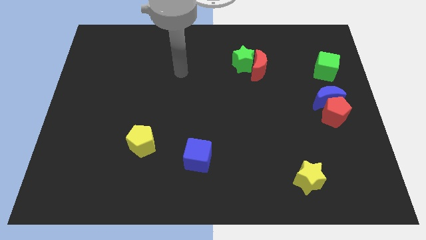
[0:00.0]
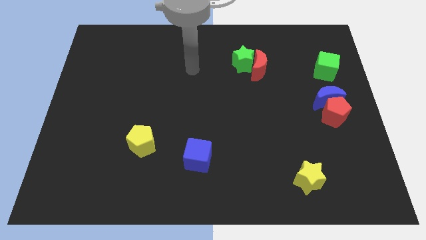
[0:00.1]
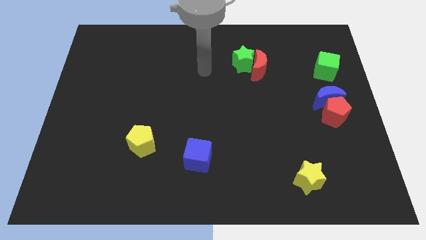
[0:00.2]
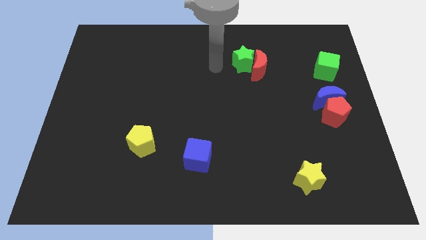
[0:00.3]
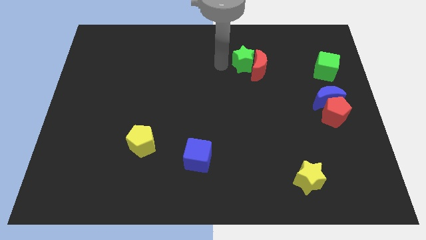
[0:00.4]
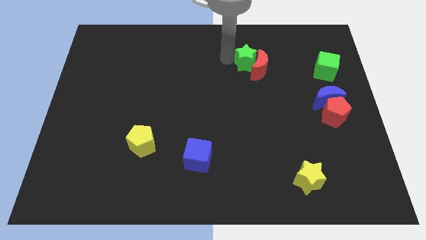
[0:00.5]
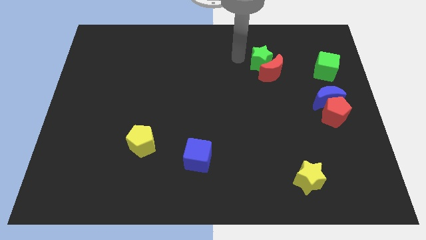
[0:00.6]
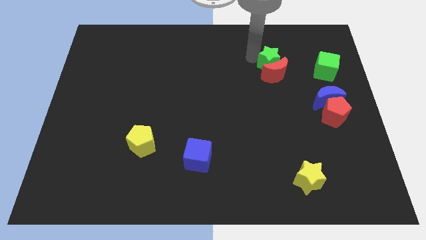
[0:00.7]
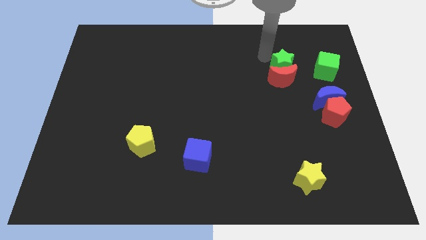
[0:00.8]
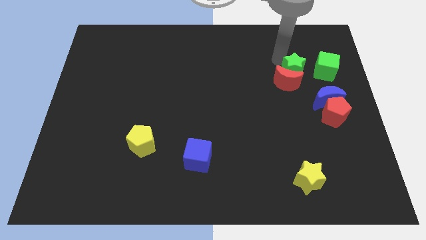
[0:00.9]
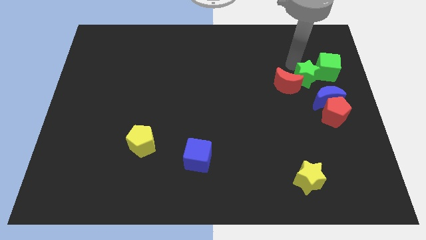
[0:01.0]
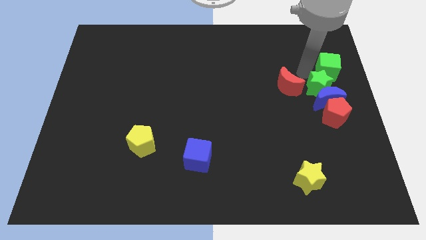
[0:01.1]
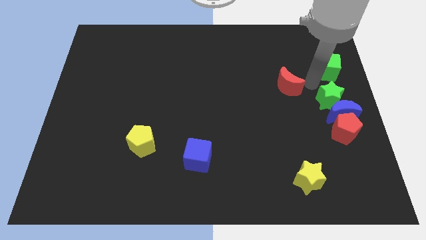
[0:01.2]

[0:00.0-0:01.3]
pull the red moon apart from the green star

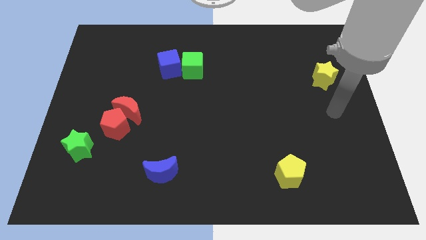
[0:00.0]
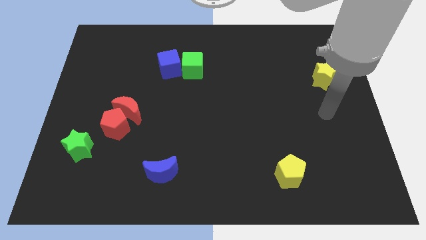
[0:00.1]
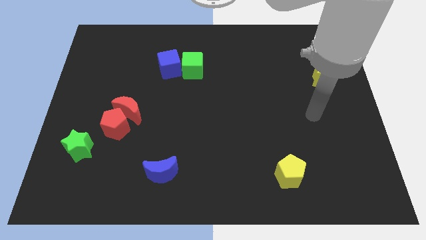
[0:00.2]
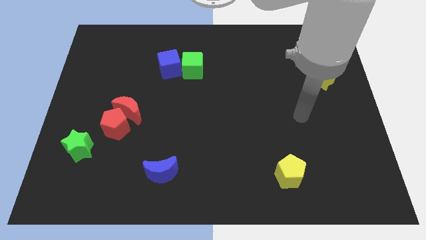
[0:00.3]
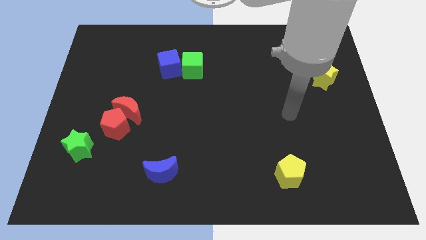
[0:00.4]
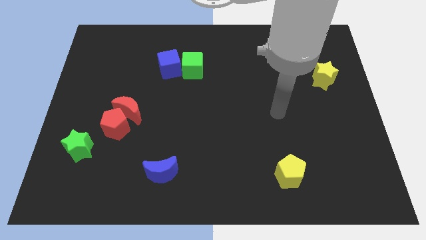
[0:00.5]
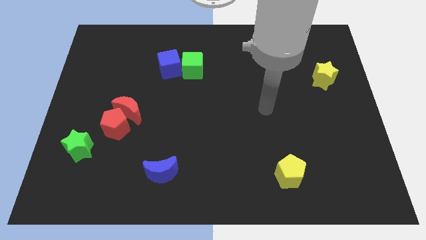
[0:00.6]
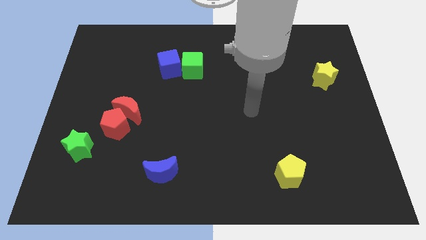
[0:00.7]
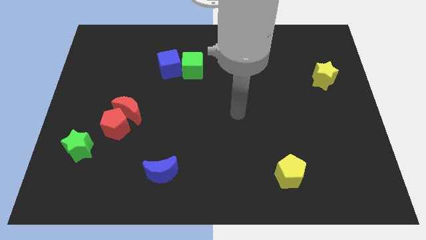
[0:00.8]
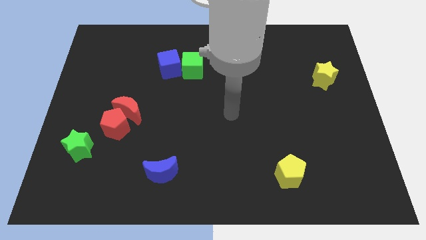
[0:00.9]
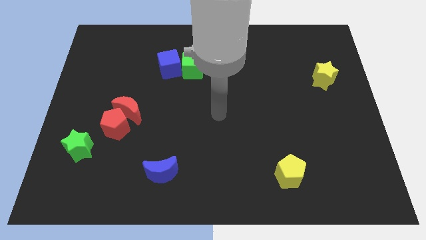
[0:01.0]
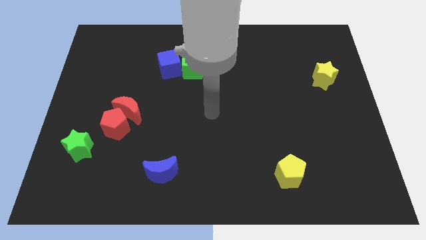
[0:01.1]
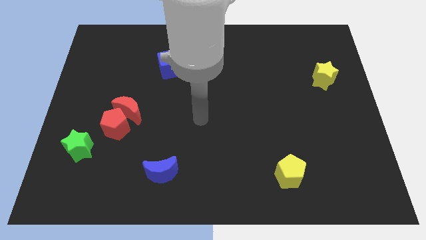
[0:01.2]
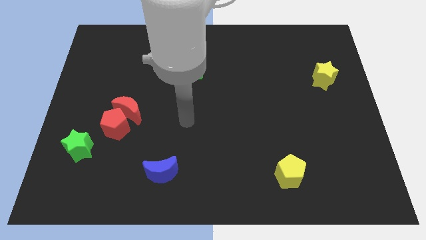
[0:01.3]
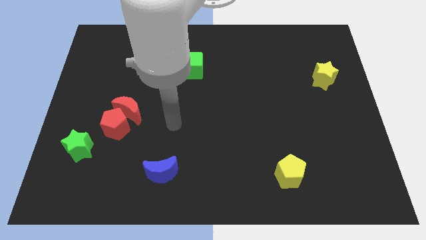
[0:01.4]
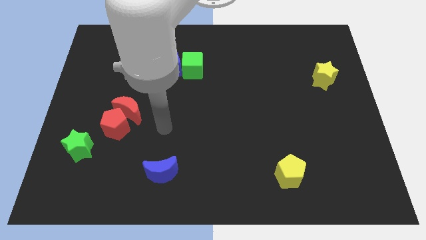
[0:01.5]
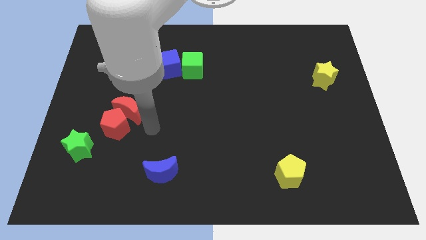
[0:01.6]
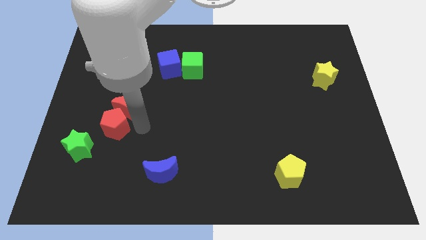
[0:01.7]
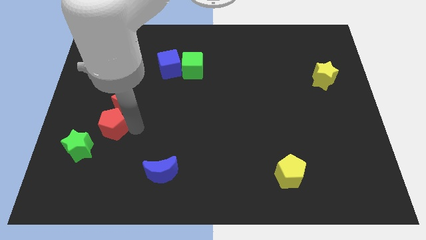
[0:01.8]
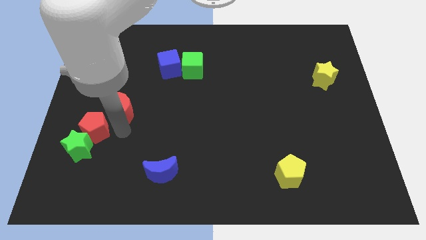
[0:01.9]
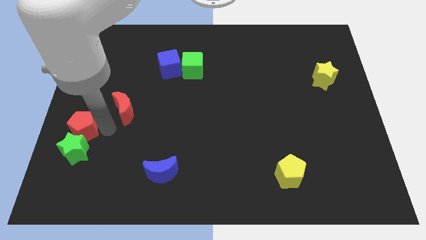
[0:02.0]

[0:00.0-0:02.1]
pull the red moon apart from the red pentagon

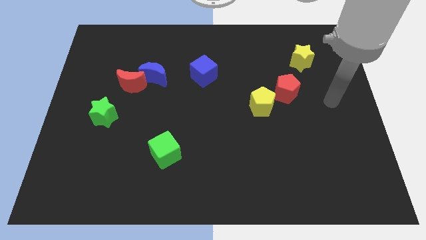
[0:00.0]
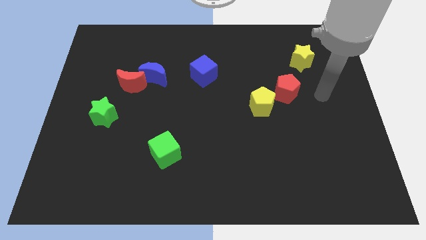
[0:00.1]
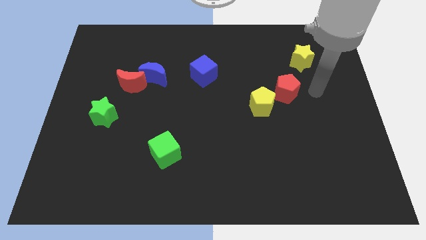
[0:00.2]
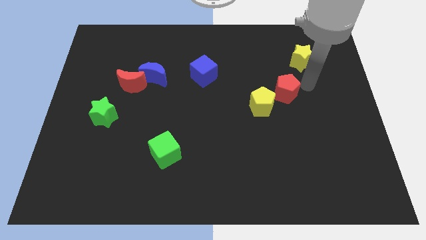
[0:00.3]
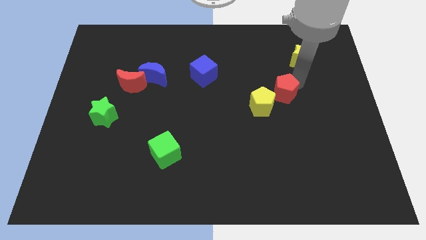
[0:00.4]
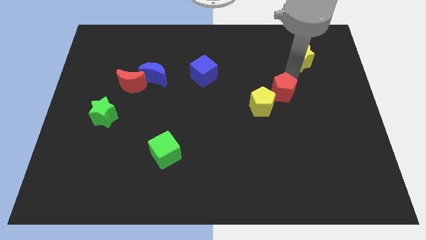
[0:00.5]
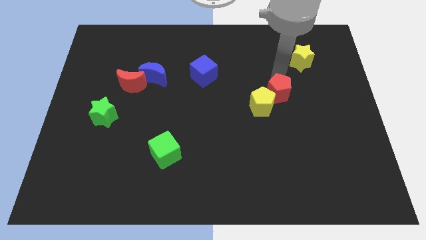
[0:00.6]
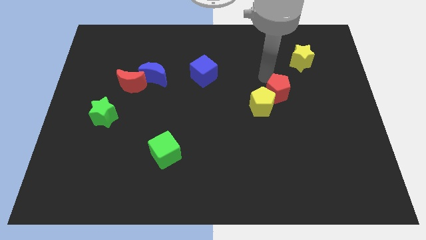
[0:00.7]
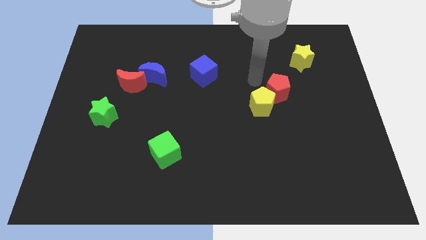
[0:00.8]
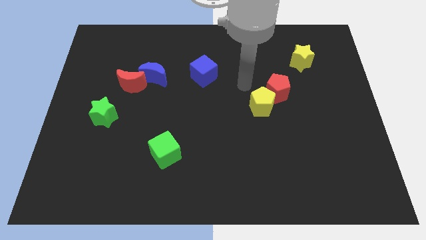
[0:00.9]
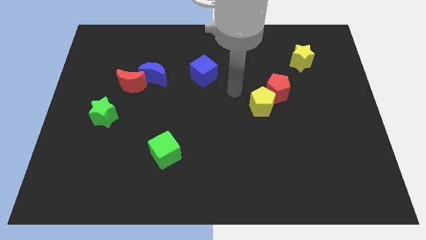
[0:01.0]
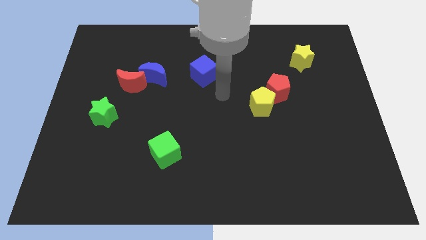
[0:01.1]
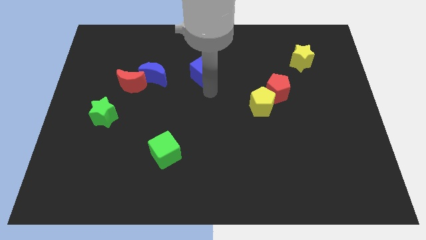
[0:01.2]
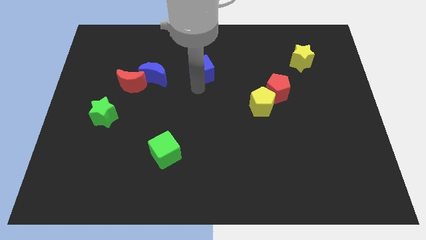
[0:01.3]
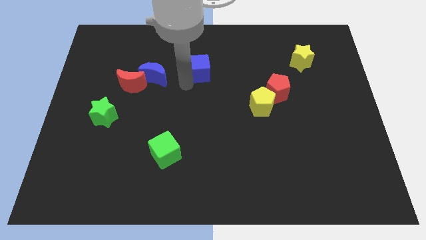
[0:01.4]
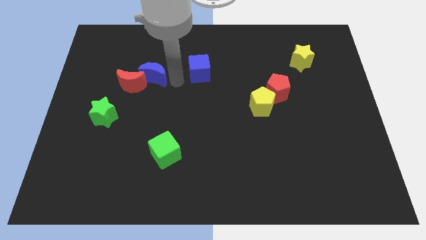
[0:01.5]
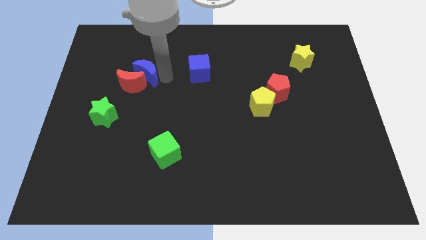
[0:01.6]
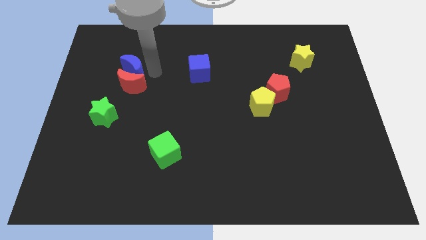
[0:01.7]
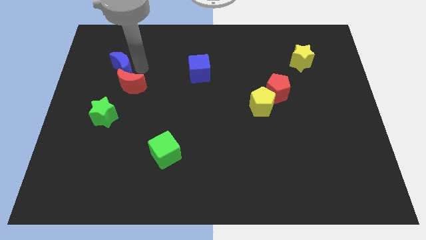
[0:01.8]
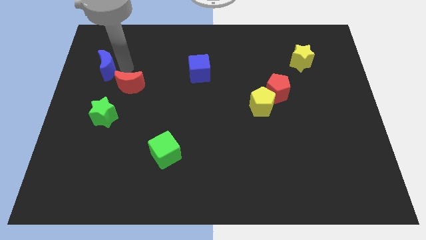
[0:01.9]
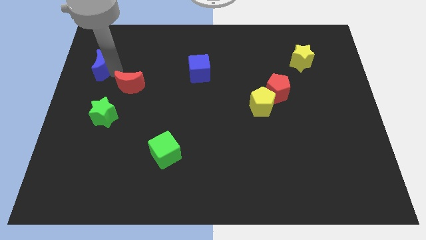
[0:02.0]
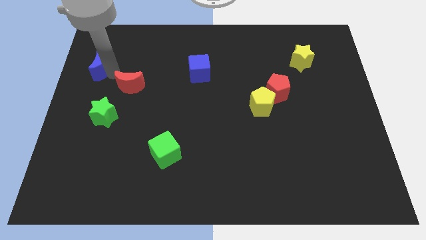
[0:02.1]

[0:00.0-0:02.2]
separate the red moon from the blue moon

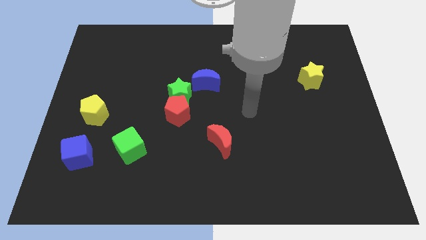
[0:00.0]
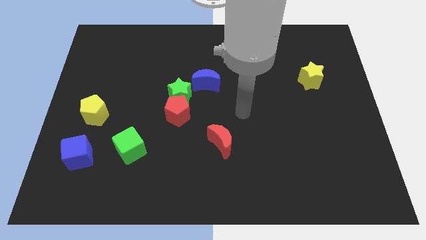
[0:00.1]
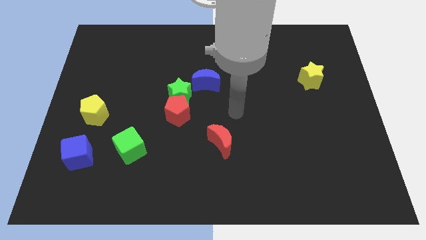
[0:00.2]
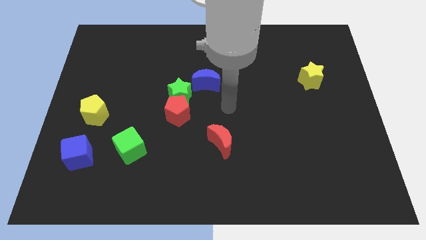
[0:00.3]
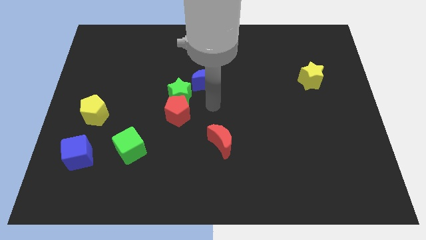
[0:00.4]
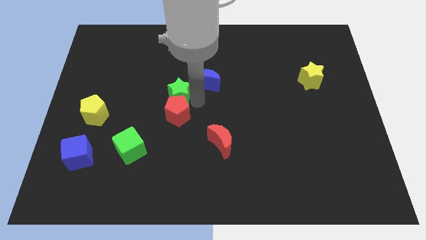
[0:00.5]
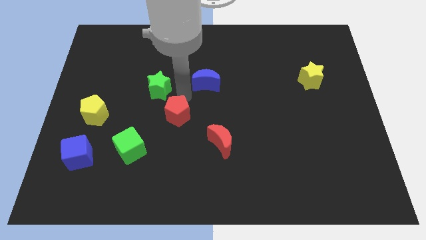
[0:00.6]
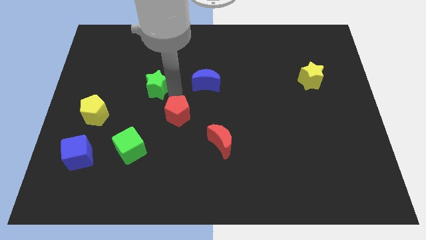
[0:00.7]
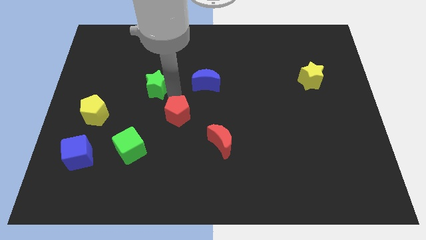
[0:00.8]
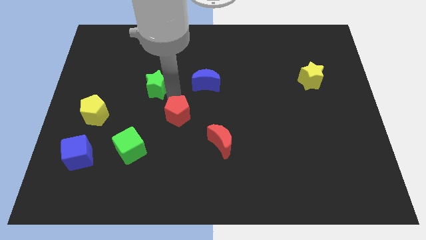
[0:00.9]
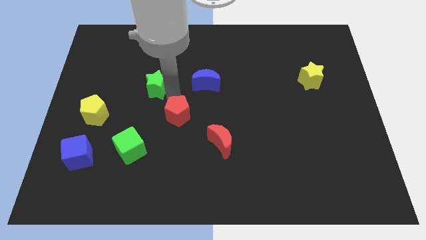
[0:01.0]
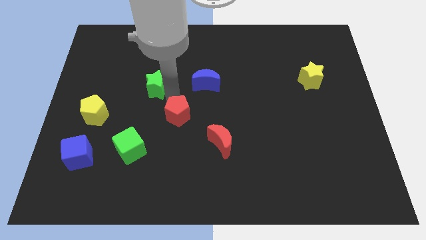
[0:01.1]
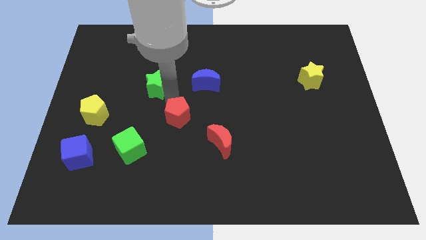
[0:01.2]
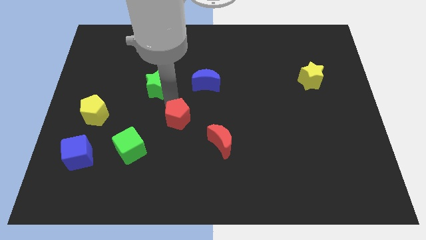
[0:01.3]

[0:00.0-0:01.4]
pull the red pentagon apart from the green star

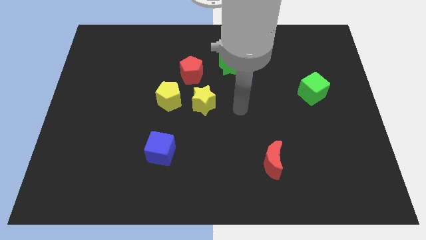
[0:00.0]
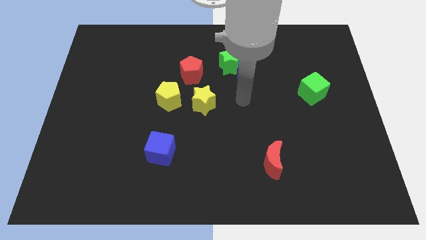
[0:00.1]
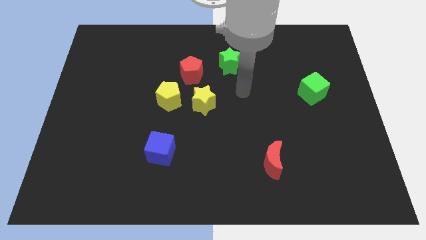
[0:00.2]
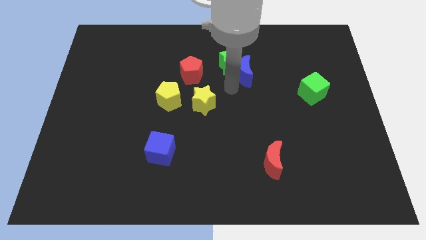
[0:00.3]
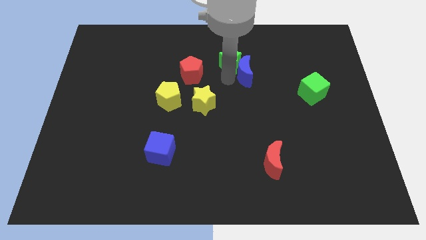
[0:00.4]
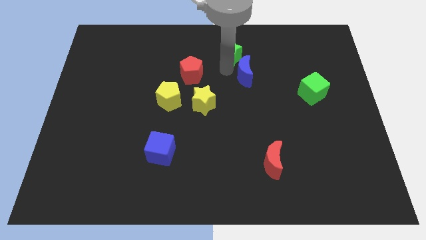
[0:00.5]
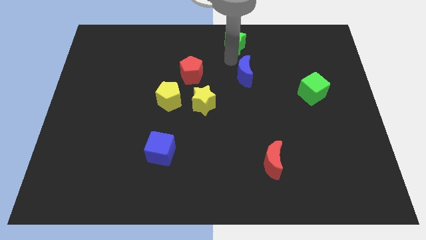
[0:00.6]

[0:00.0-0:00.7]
pull the blue moon apart from the green star

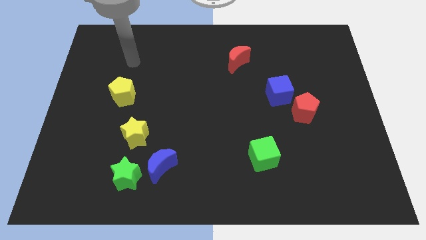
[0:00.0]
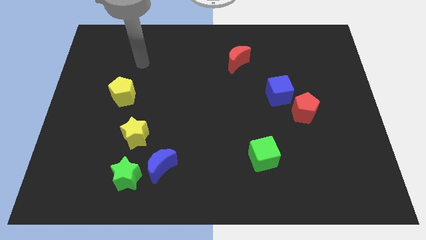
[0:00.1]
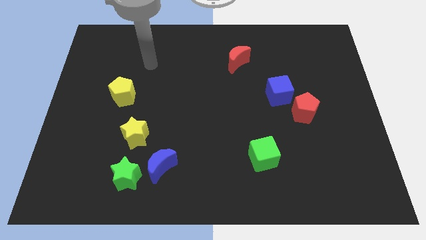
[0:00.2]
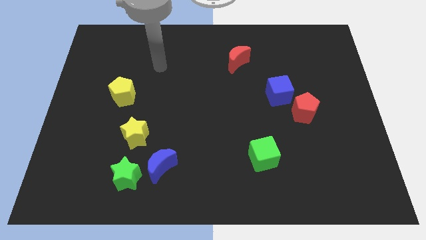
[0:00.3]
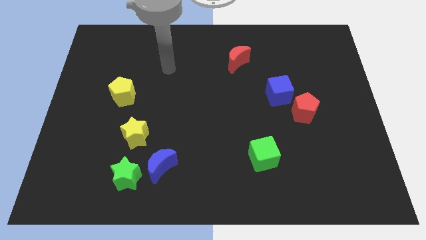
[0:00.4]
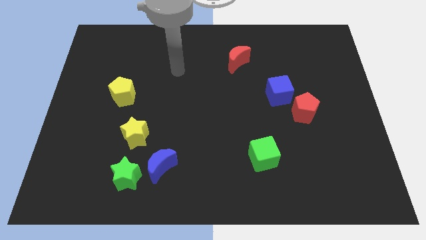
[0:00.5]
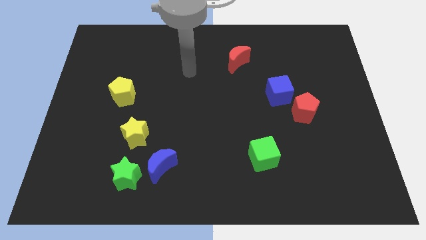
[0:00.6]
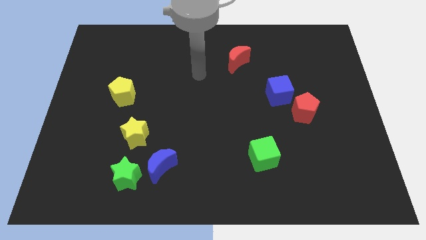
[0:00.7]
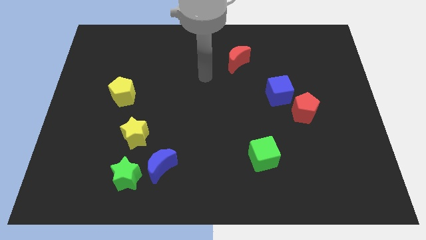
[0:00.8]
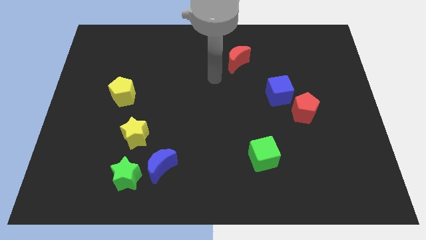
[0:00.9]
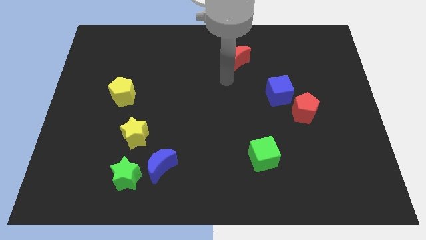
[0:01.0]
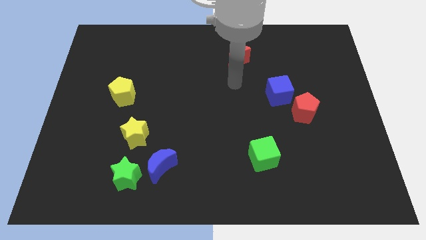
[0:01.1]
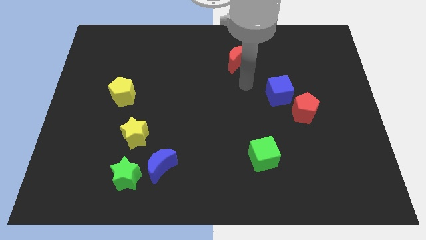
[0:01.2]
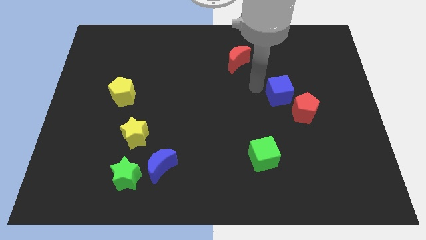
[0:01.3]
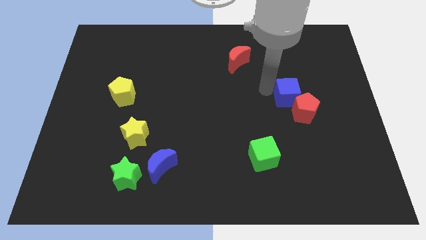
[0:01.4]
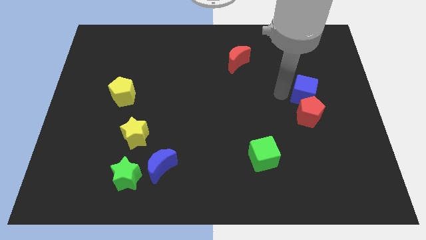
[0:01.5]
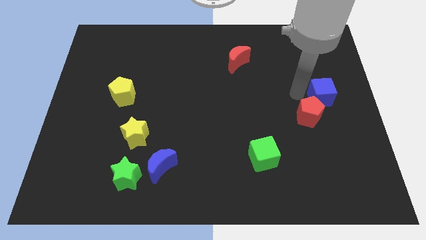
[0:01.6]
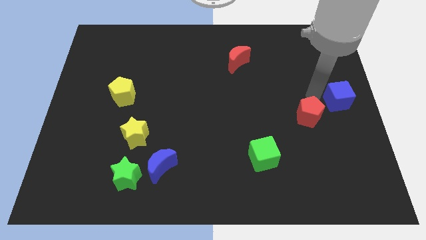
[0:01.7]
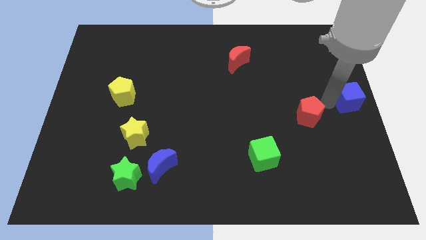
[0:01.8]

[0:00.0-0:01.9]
pull the red pentagon apart from the blue cube
